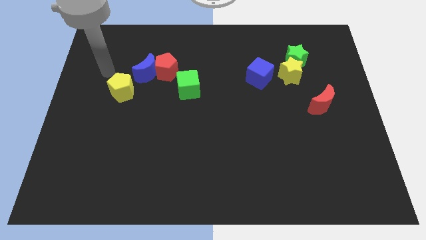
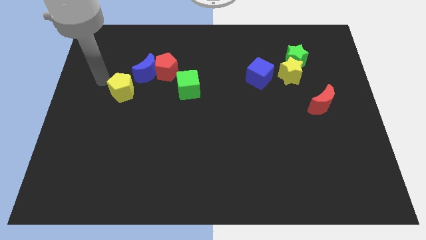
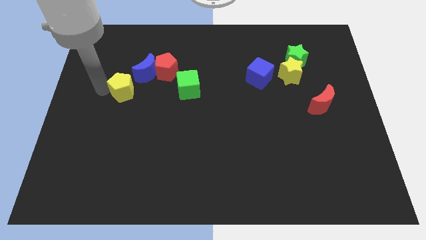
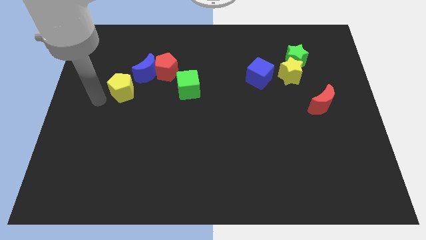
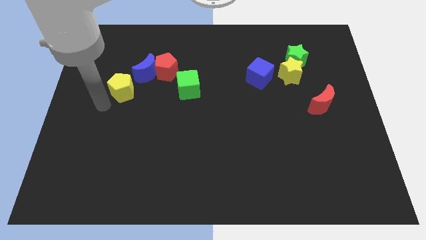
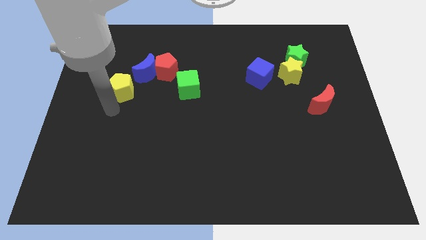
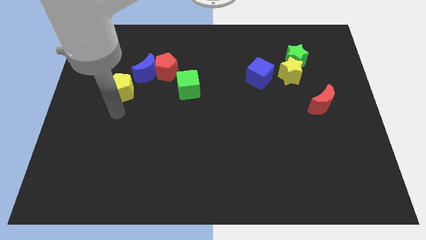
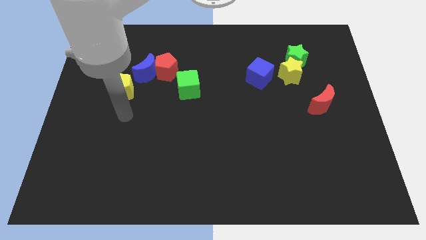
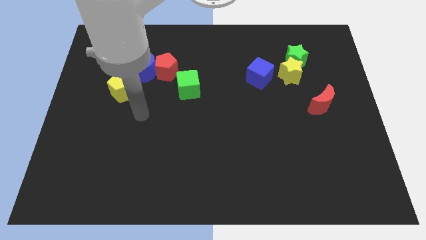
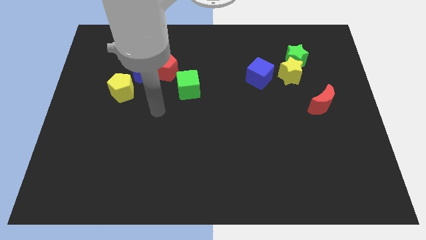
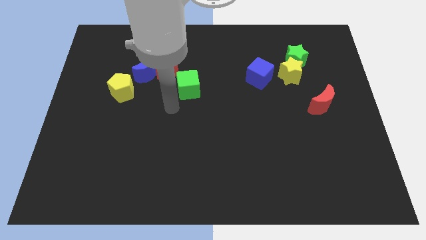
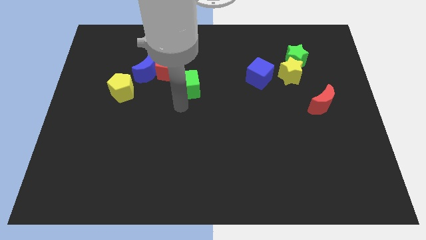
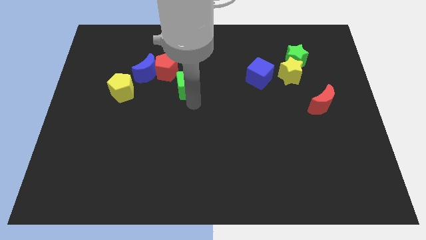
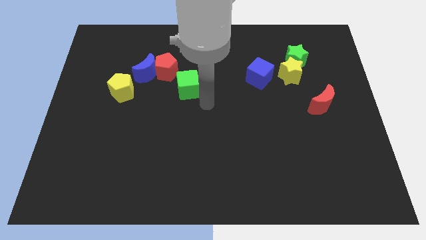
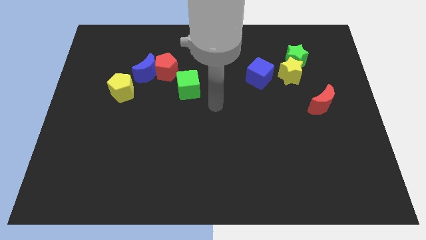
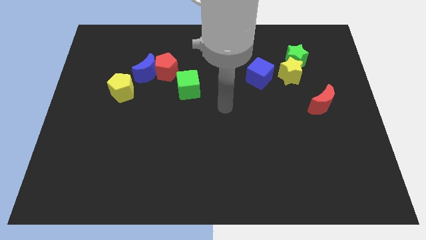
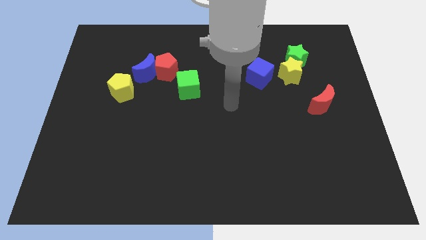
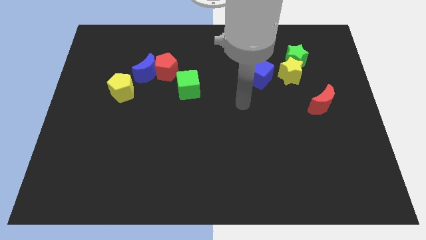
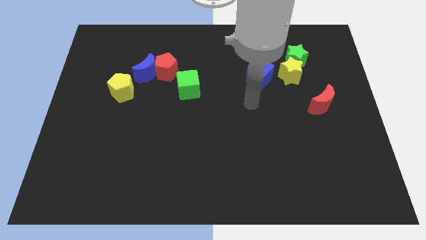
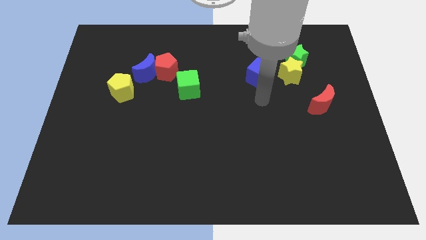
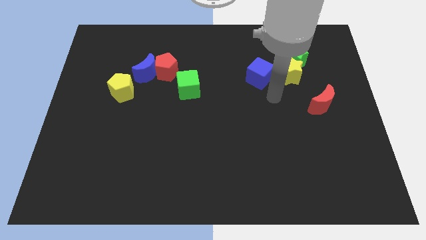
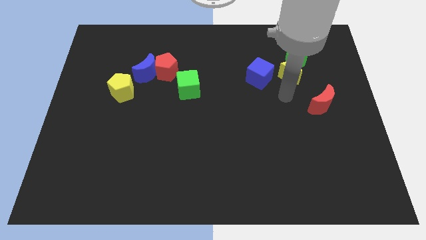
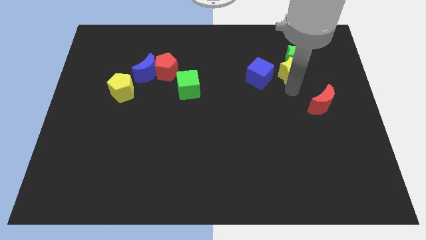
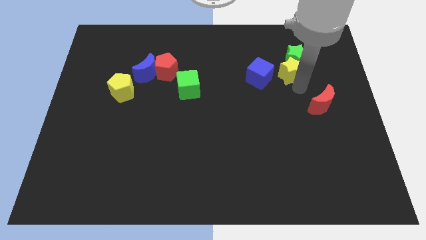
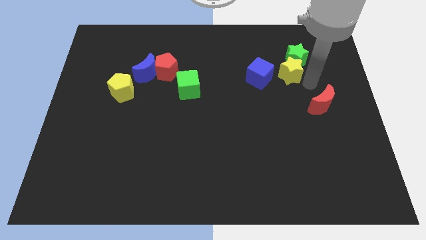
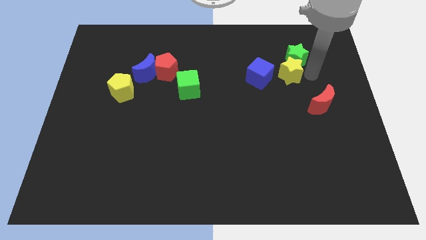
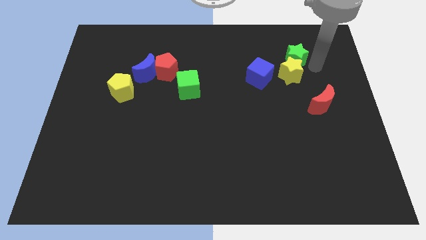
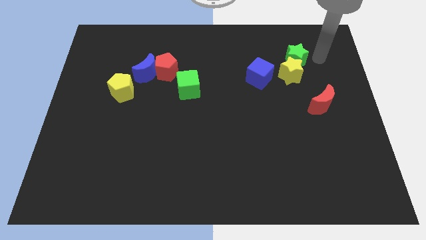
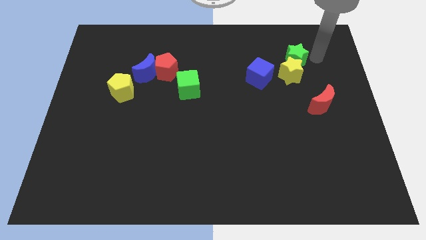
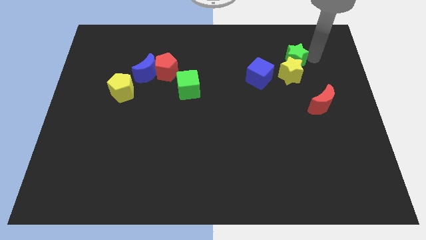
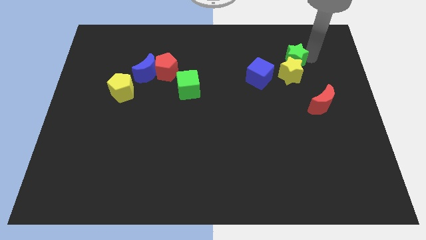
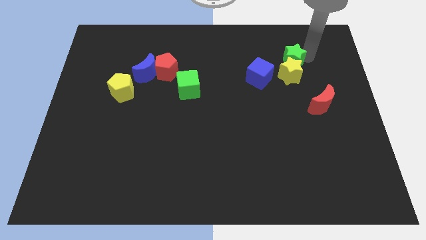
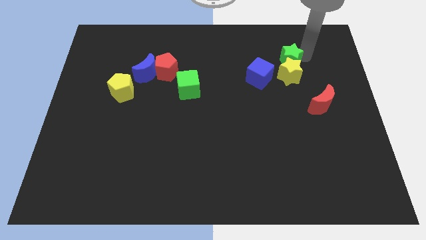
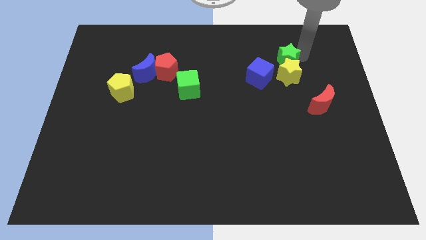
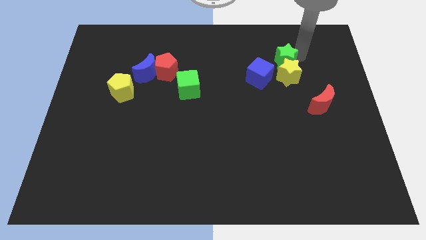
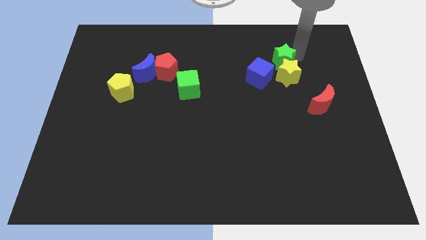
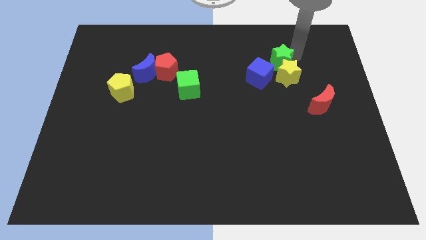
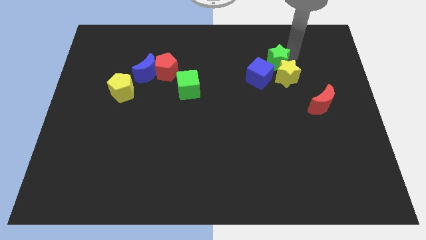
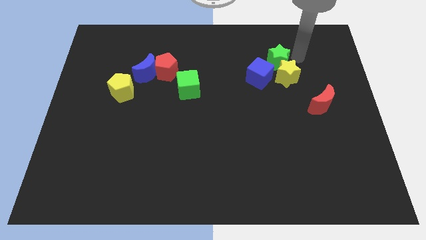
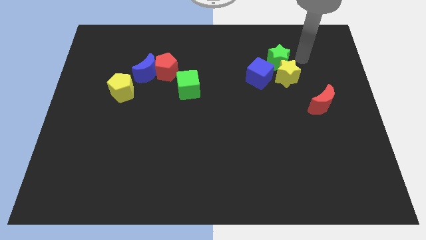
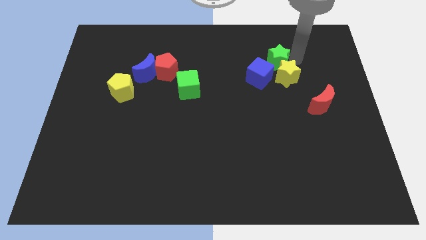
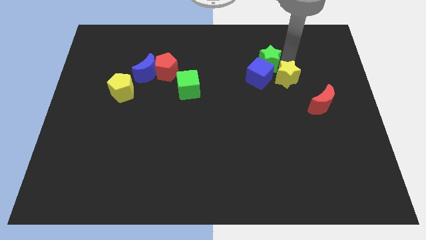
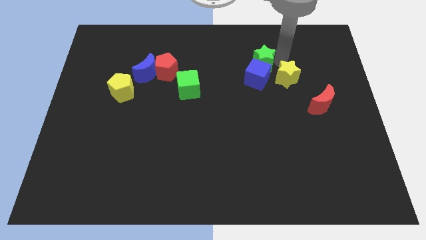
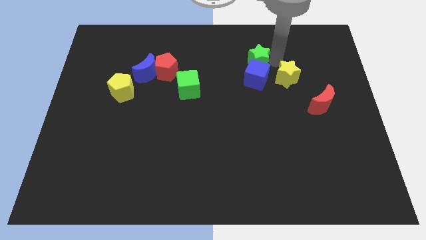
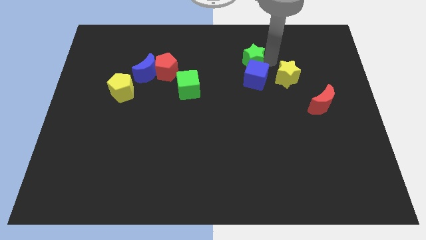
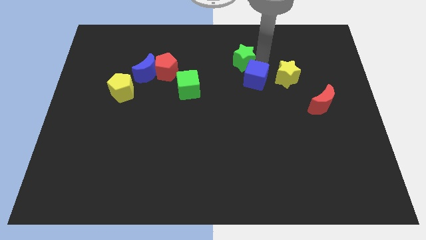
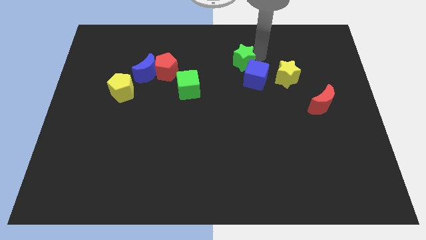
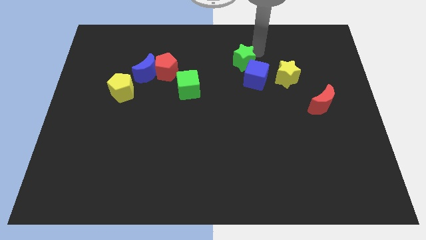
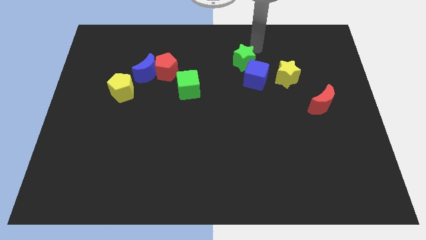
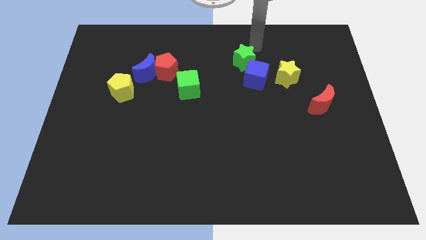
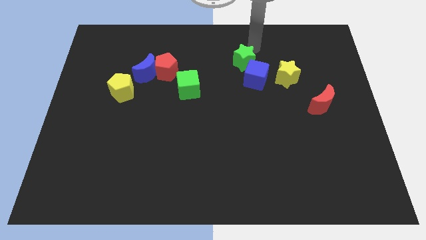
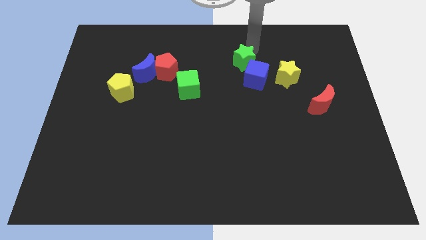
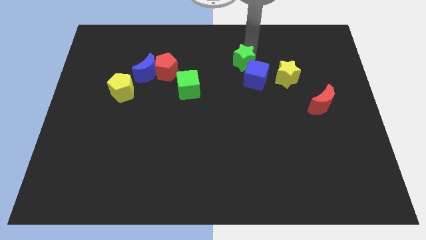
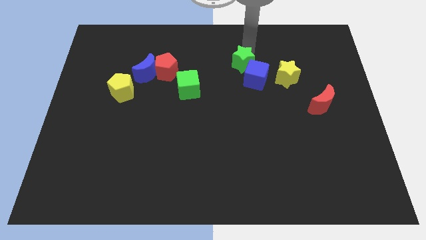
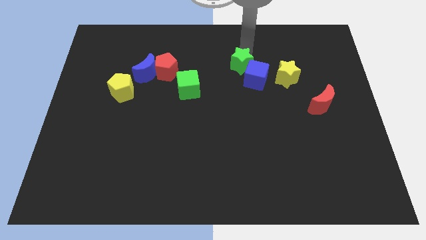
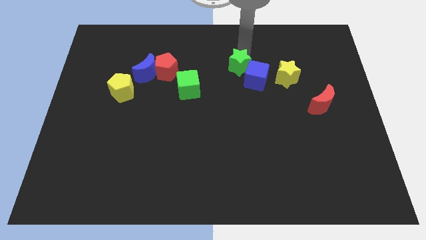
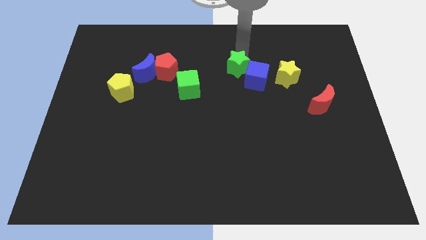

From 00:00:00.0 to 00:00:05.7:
push the green star to the center

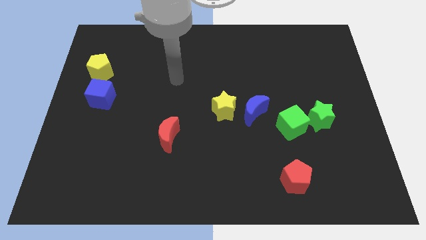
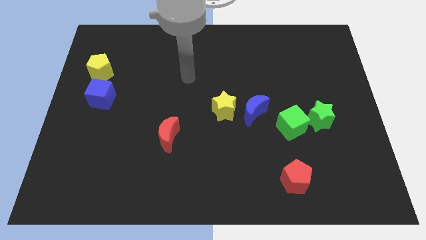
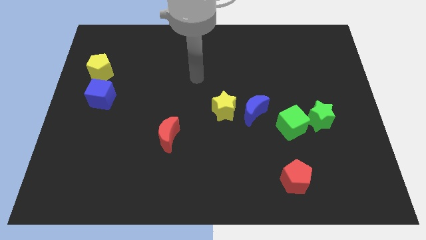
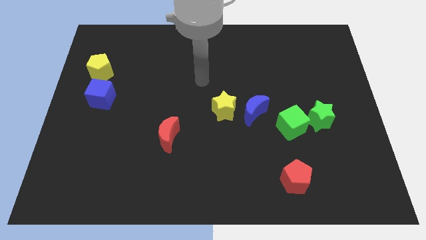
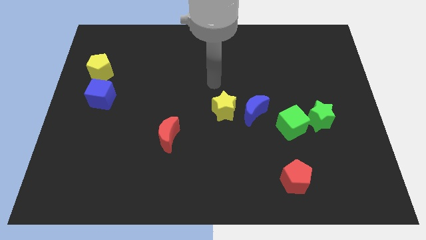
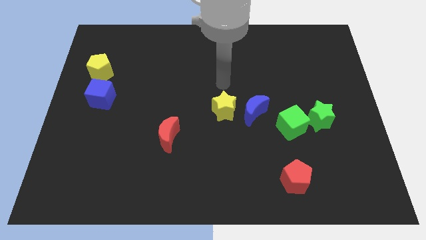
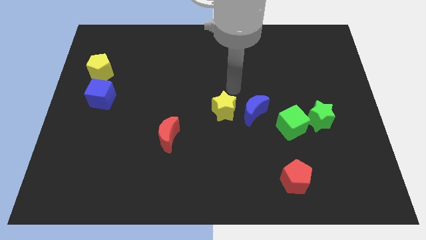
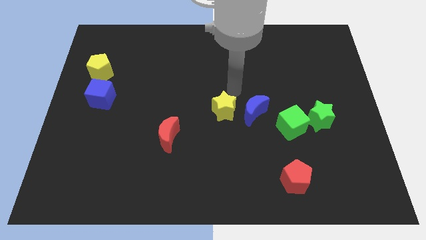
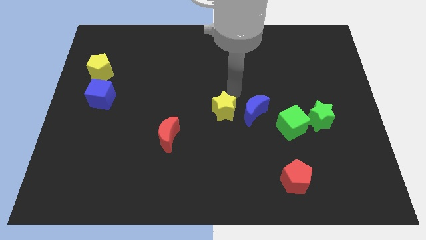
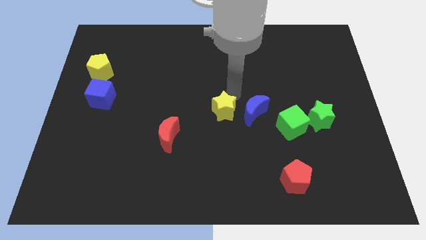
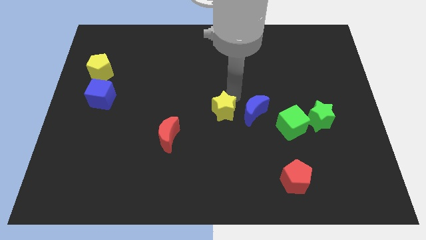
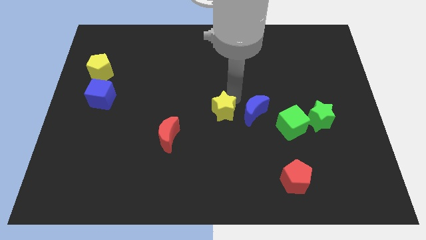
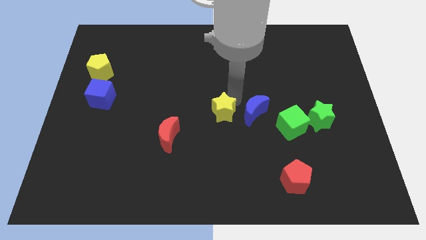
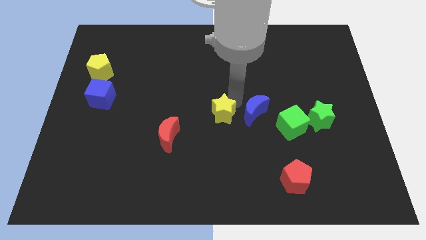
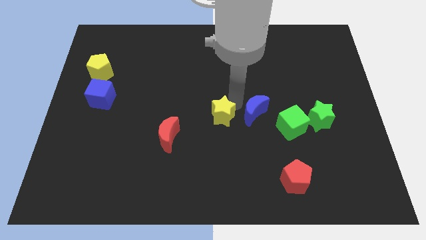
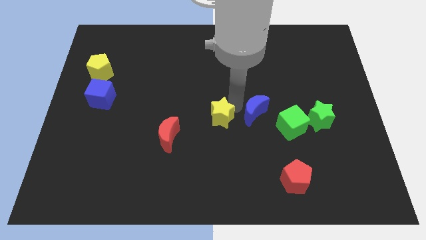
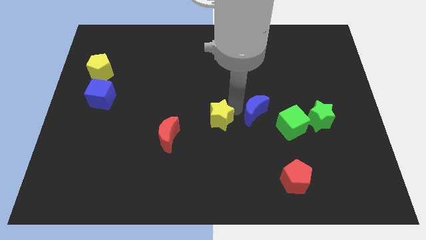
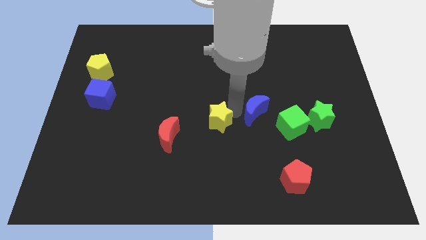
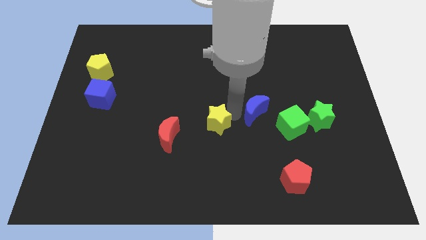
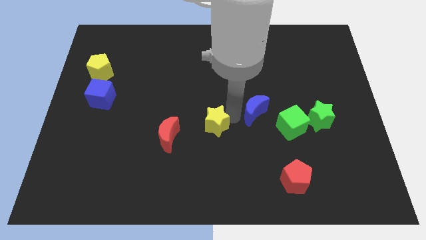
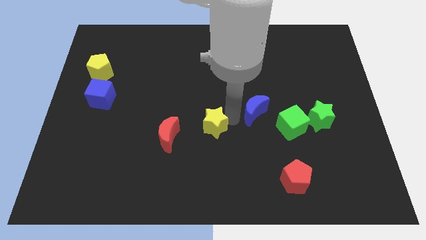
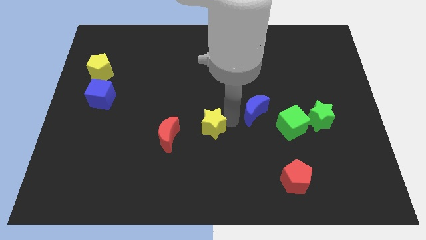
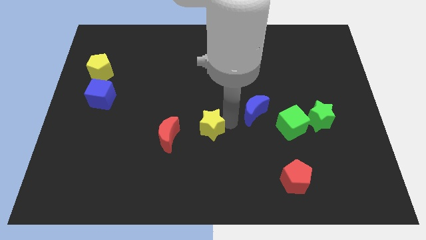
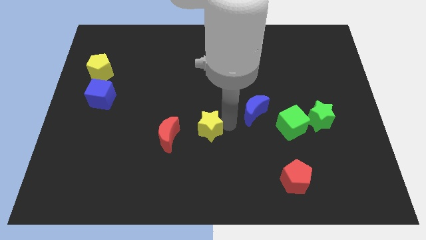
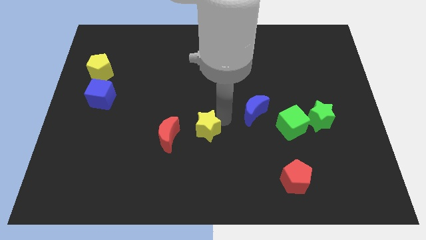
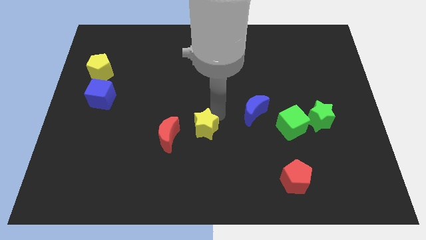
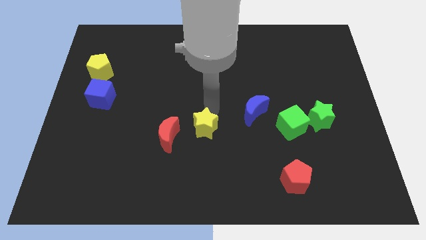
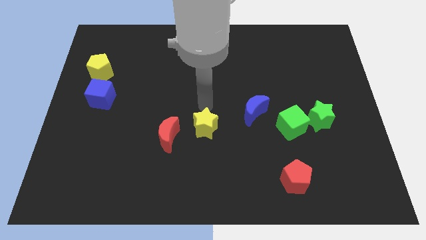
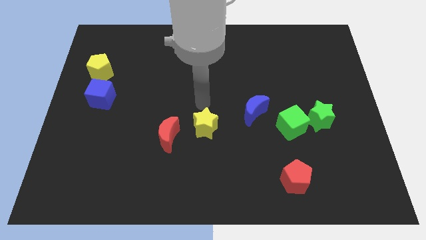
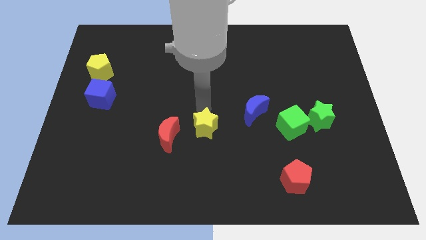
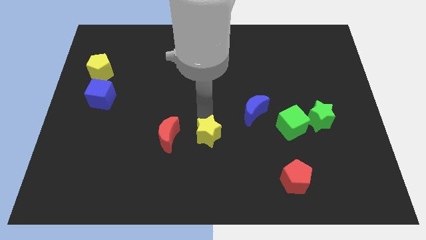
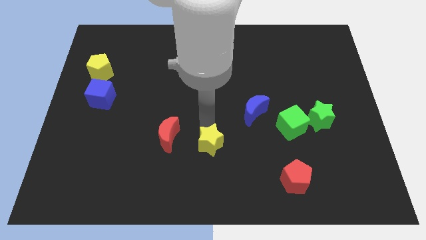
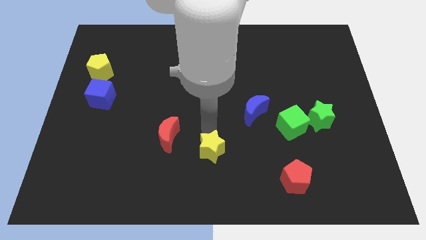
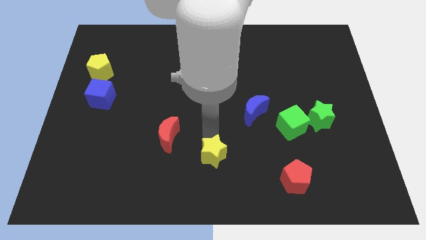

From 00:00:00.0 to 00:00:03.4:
push the yellow star to the bottom side
